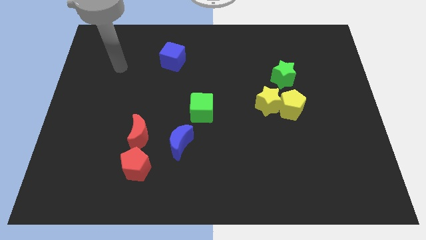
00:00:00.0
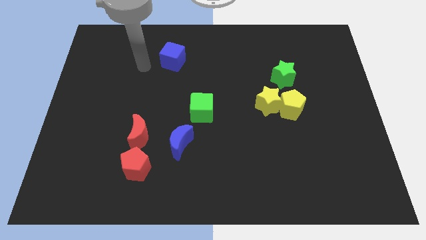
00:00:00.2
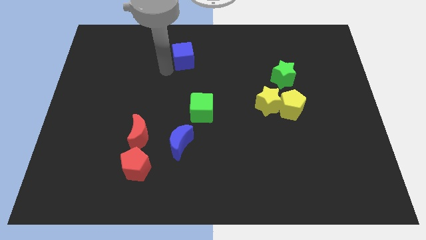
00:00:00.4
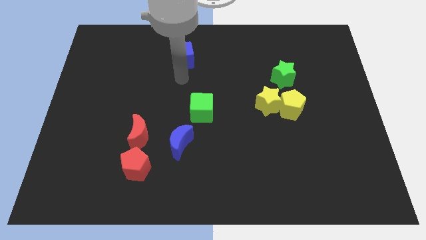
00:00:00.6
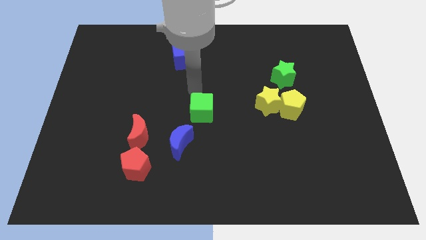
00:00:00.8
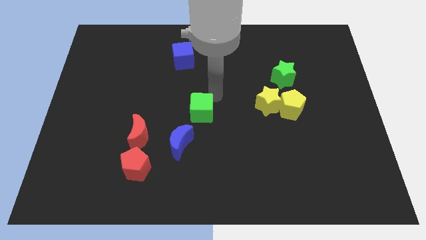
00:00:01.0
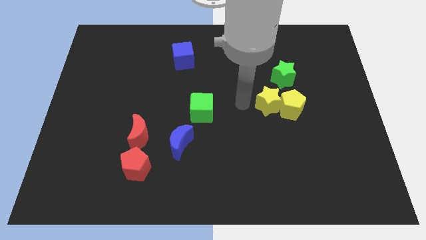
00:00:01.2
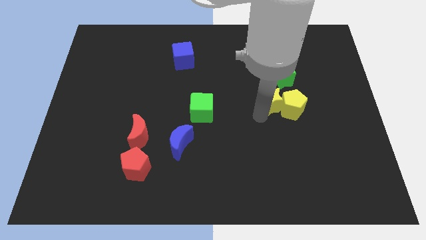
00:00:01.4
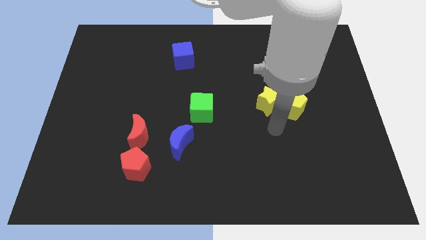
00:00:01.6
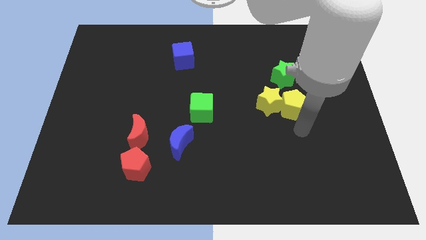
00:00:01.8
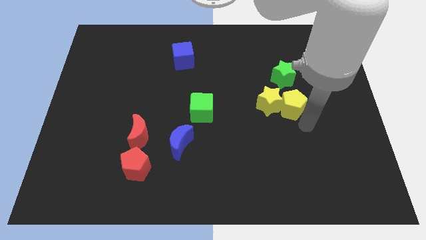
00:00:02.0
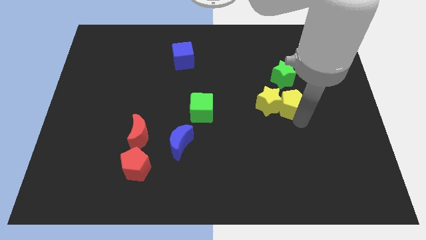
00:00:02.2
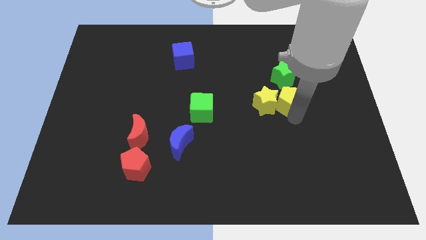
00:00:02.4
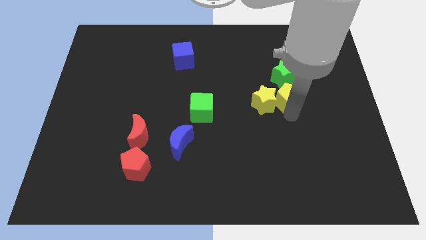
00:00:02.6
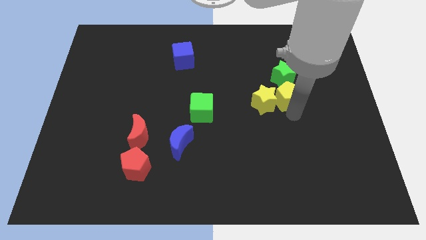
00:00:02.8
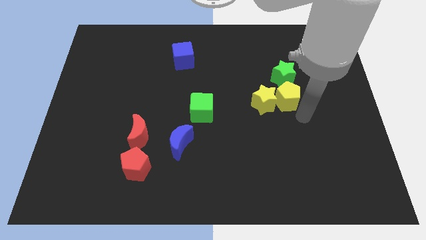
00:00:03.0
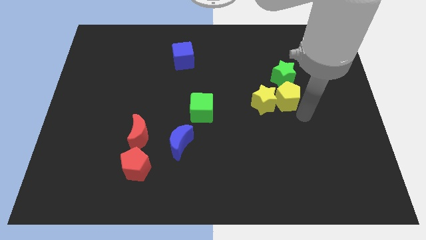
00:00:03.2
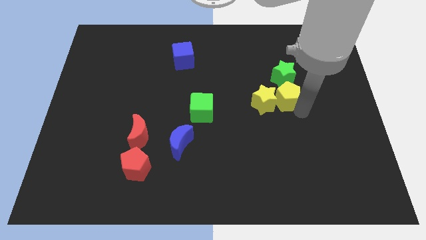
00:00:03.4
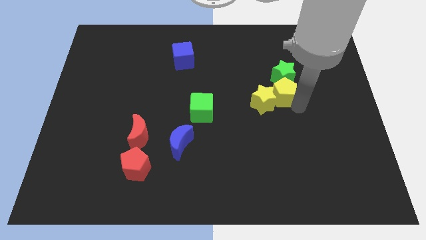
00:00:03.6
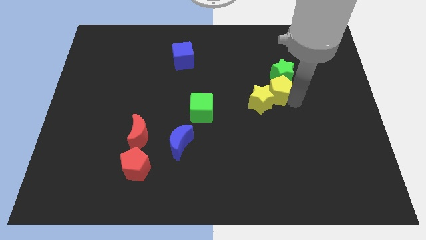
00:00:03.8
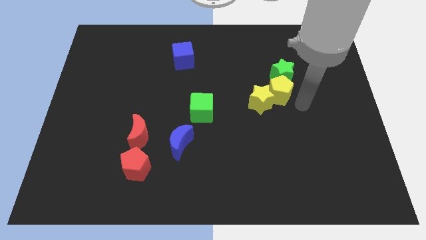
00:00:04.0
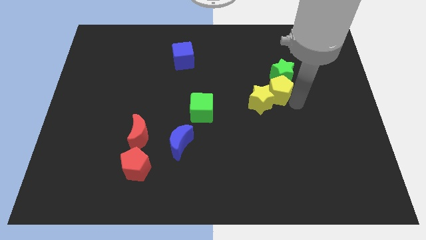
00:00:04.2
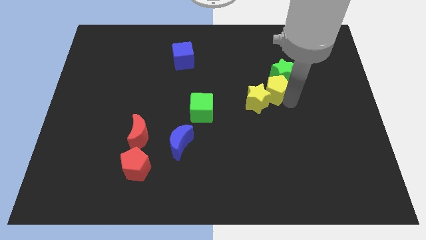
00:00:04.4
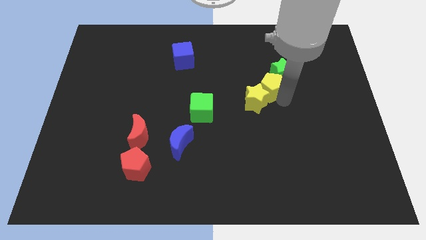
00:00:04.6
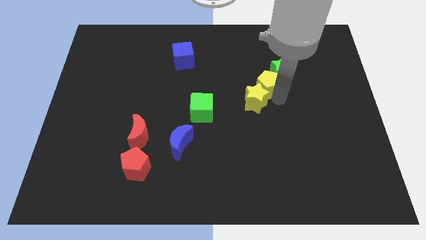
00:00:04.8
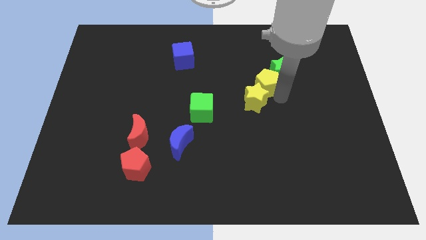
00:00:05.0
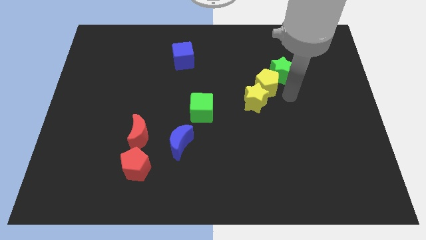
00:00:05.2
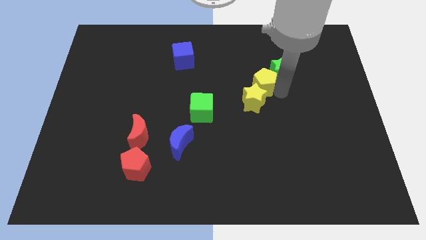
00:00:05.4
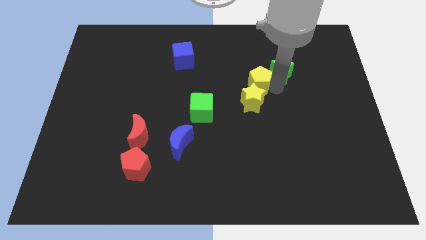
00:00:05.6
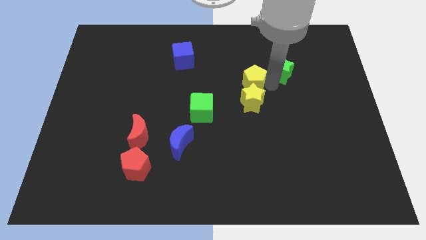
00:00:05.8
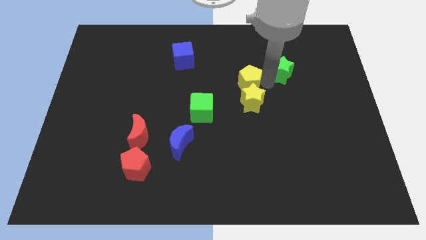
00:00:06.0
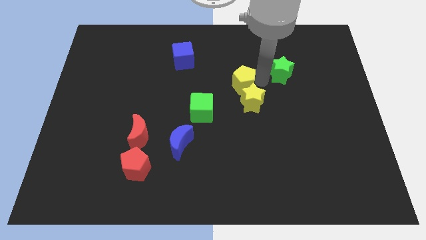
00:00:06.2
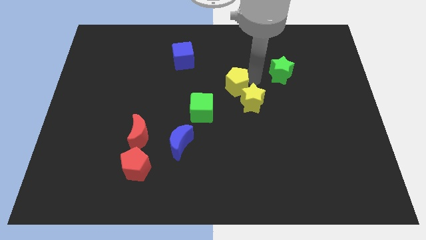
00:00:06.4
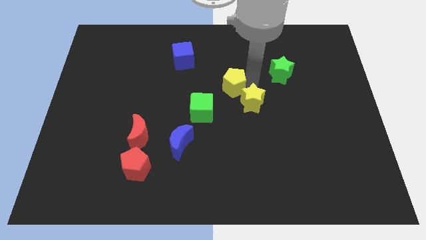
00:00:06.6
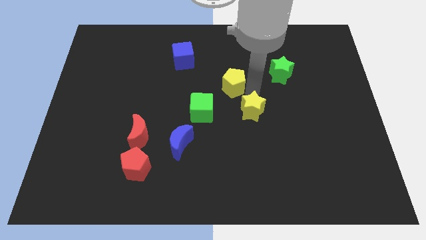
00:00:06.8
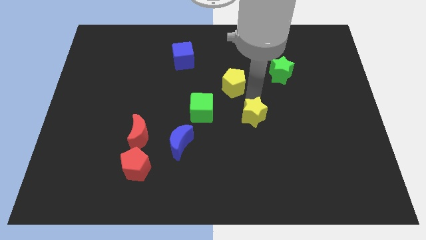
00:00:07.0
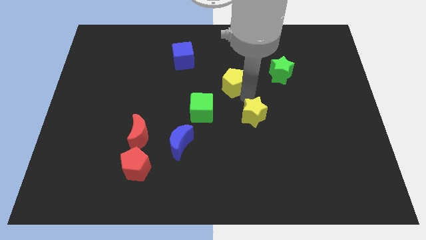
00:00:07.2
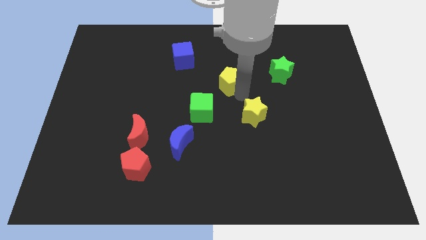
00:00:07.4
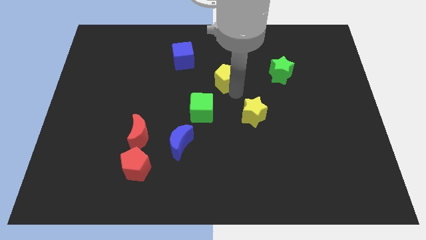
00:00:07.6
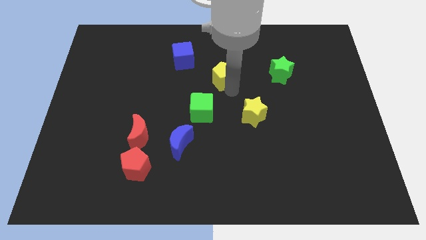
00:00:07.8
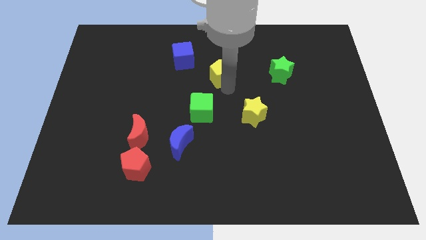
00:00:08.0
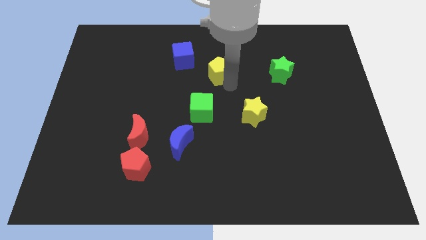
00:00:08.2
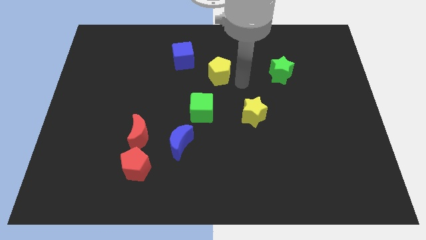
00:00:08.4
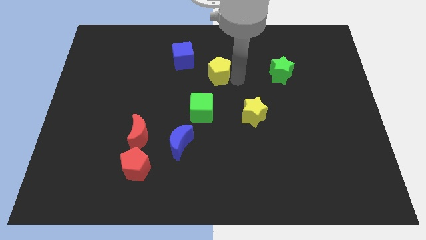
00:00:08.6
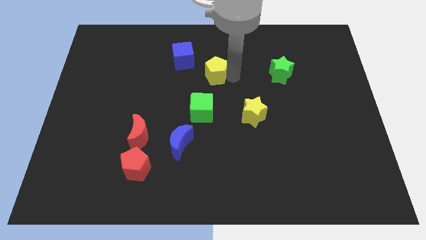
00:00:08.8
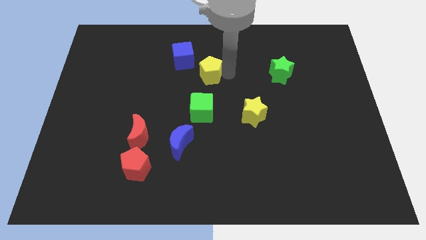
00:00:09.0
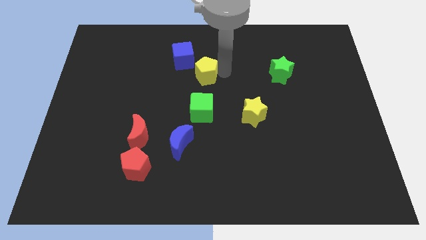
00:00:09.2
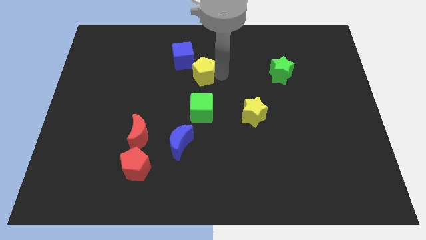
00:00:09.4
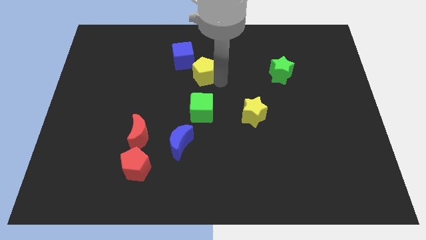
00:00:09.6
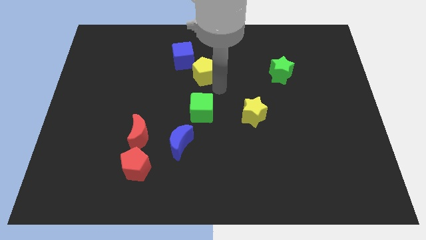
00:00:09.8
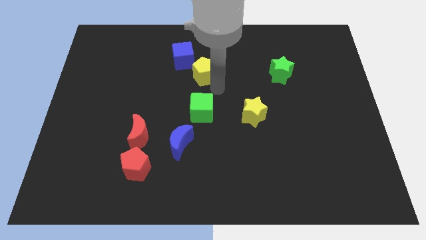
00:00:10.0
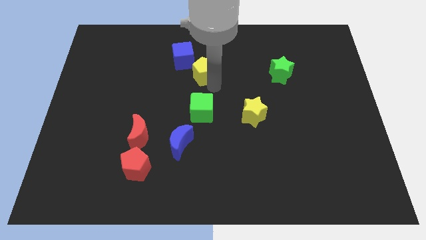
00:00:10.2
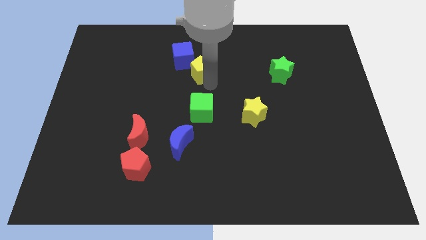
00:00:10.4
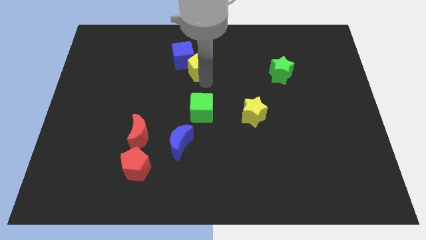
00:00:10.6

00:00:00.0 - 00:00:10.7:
push the yellow pentagon next to the blue cube

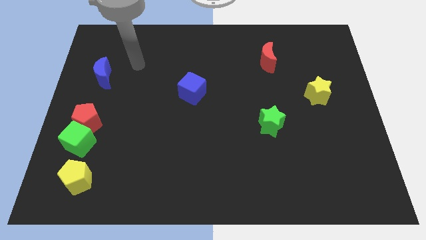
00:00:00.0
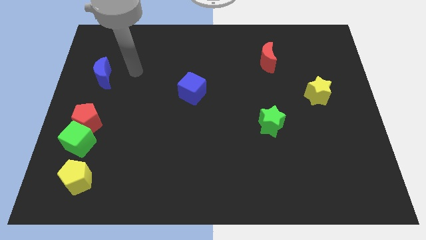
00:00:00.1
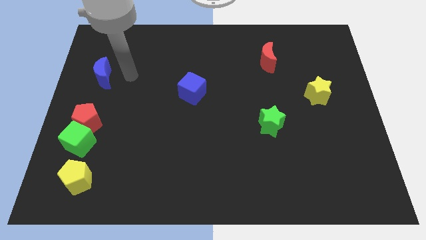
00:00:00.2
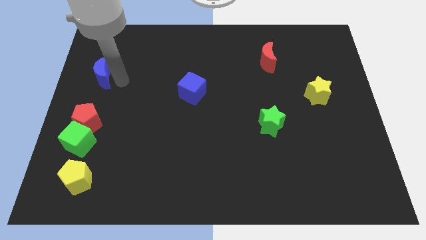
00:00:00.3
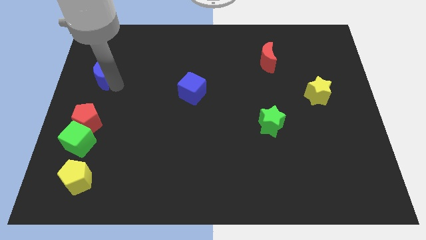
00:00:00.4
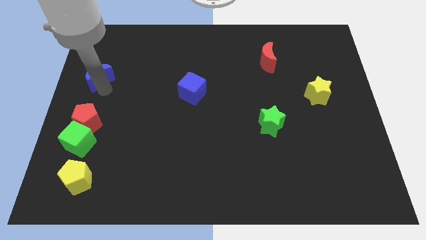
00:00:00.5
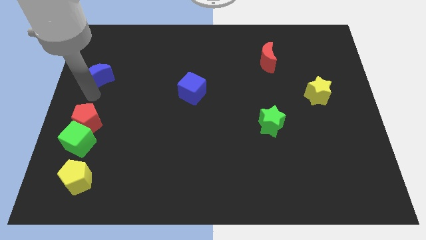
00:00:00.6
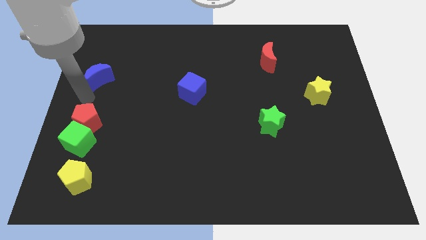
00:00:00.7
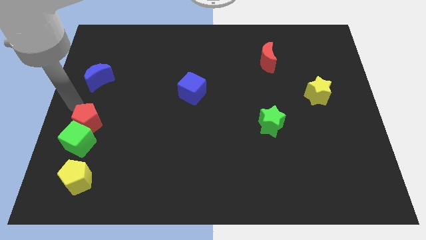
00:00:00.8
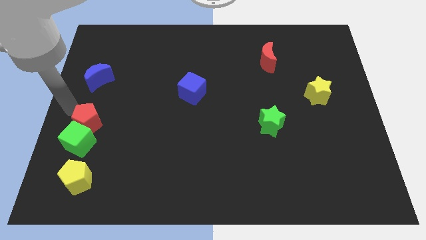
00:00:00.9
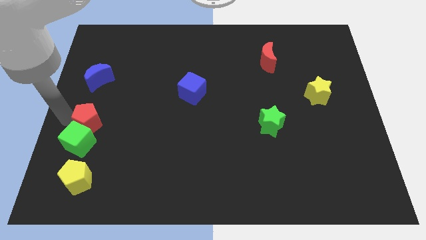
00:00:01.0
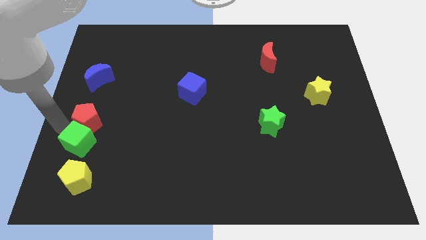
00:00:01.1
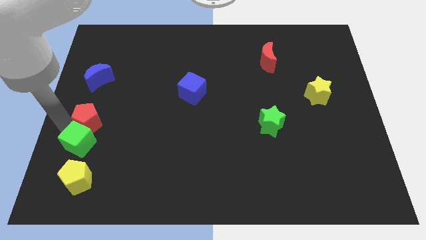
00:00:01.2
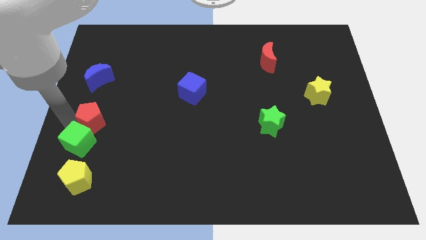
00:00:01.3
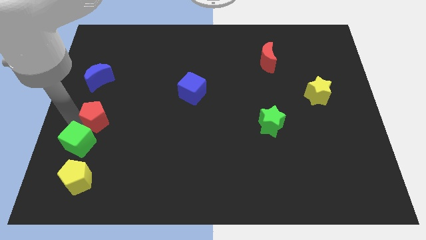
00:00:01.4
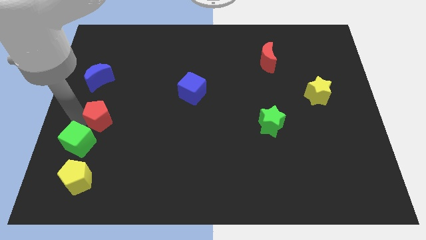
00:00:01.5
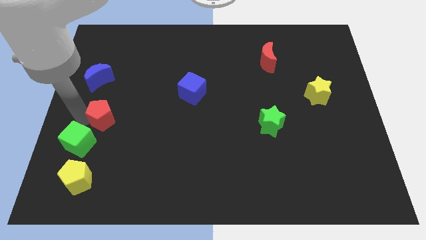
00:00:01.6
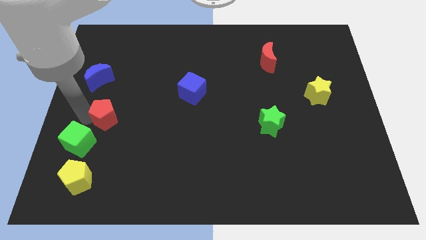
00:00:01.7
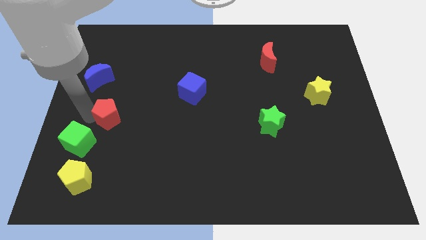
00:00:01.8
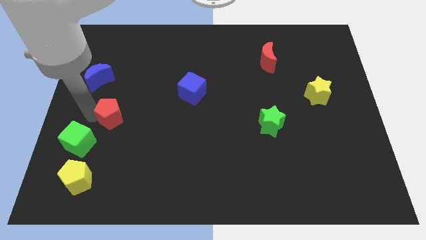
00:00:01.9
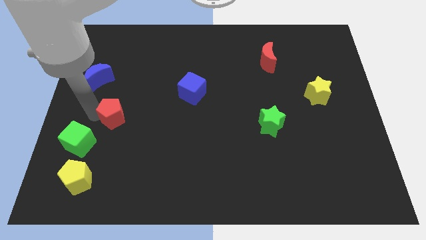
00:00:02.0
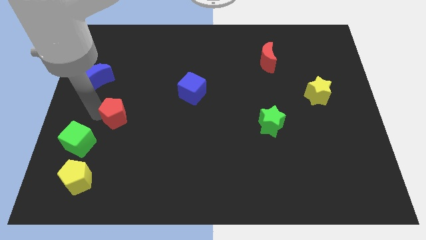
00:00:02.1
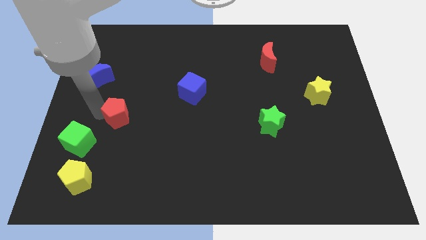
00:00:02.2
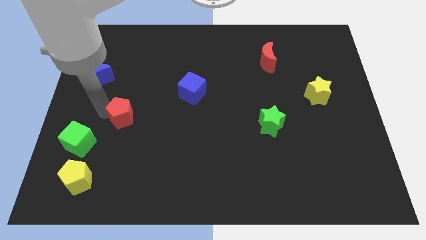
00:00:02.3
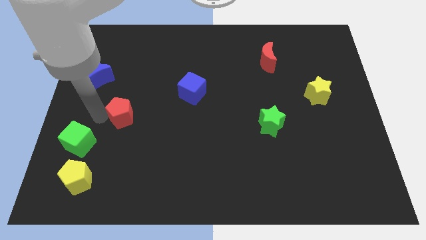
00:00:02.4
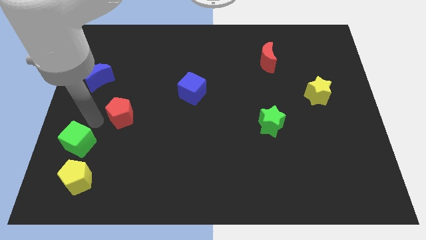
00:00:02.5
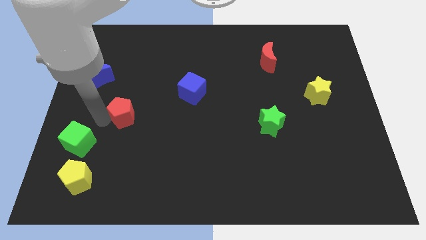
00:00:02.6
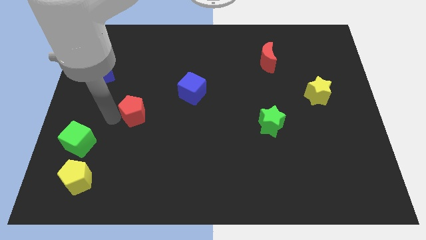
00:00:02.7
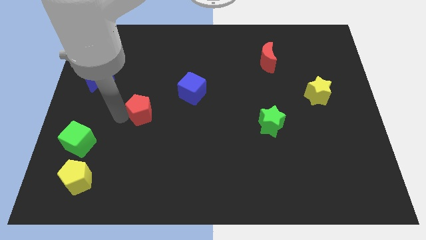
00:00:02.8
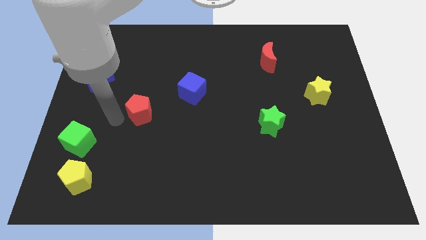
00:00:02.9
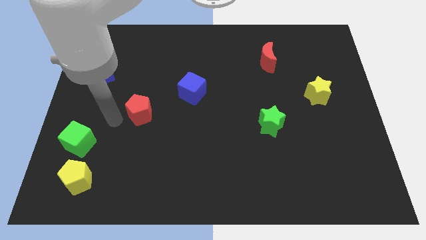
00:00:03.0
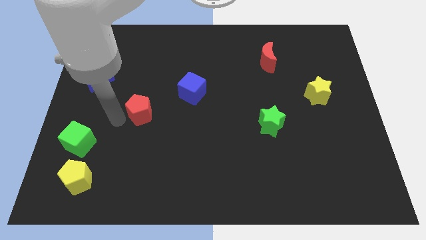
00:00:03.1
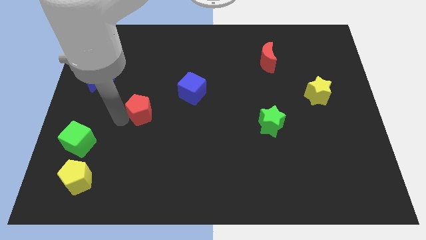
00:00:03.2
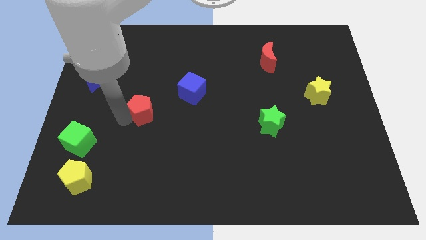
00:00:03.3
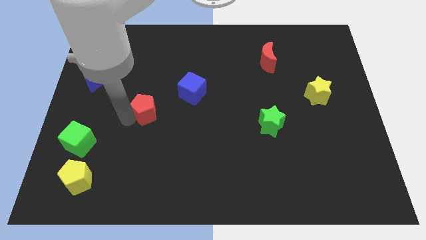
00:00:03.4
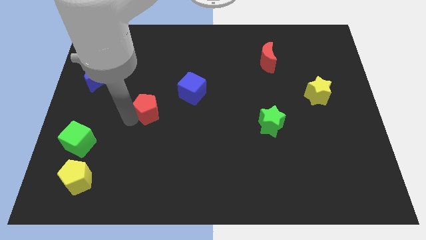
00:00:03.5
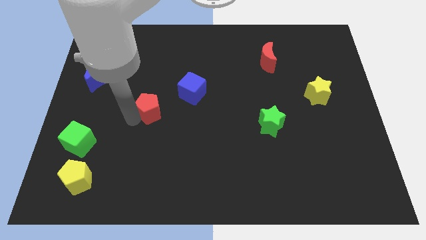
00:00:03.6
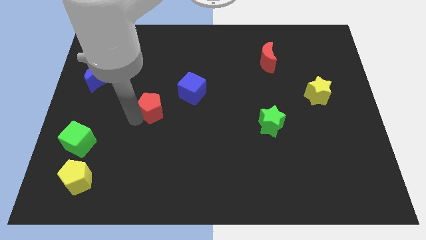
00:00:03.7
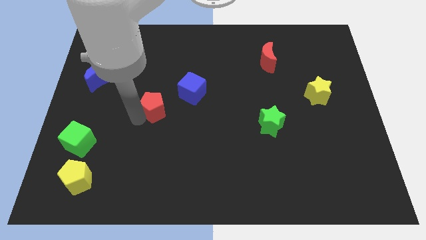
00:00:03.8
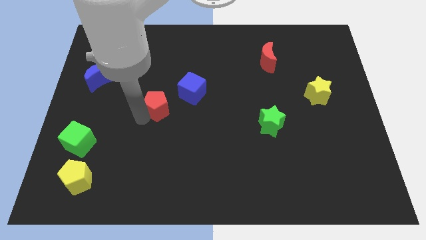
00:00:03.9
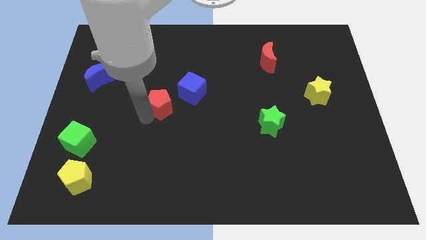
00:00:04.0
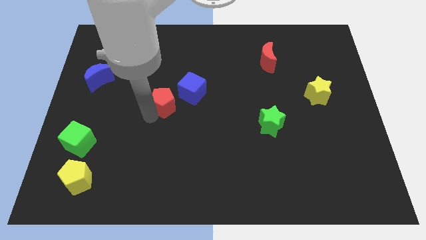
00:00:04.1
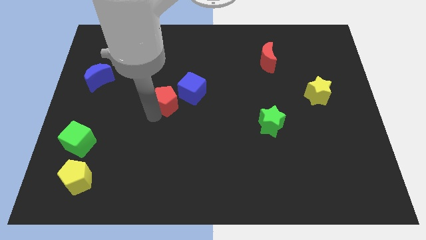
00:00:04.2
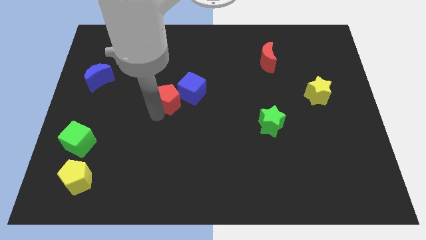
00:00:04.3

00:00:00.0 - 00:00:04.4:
move the red pentagon close to the blue cube
